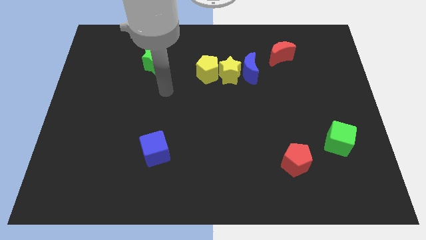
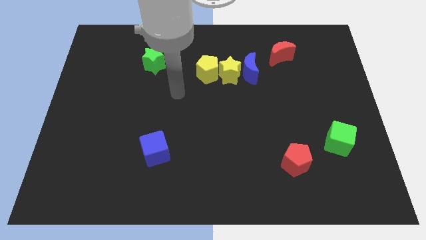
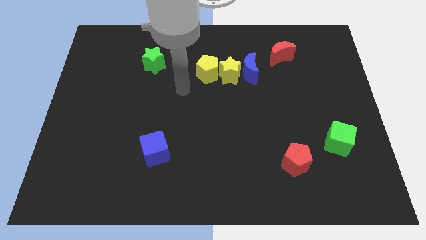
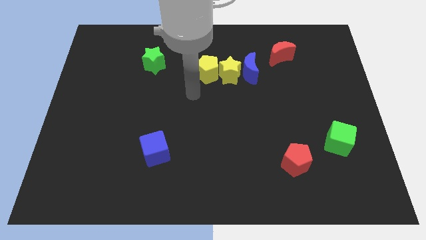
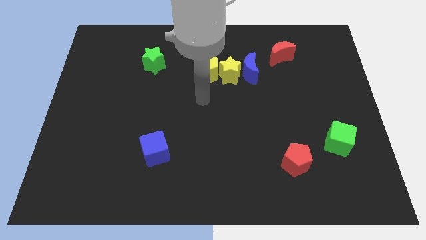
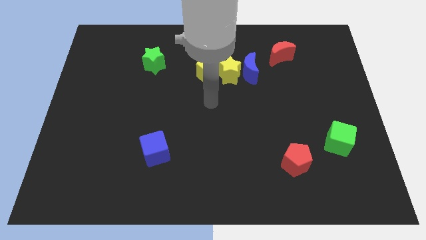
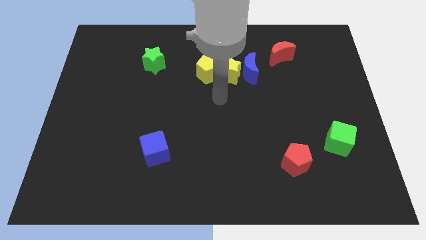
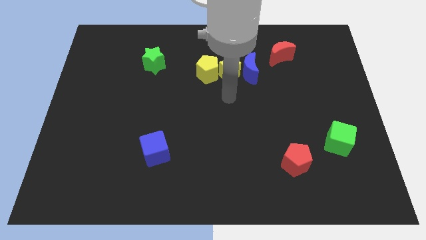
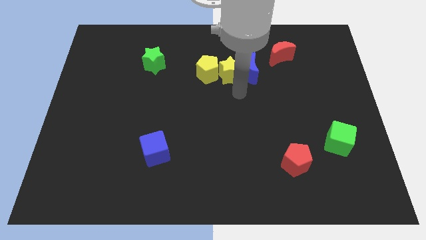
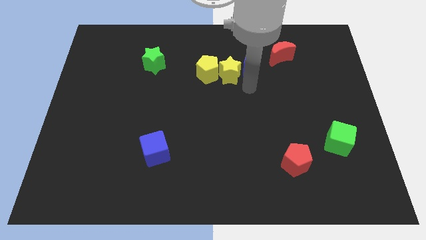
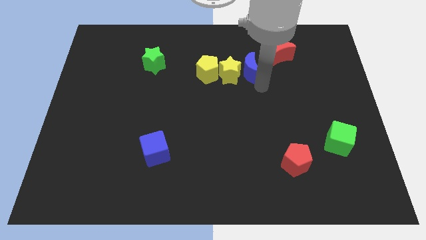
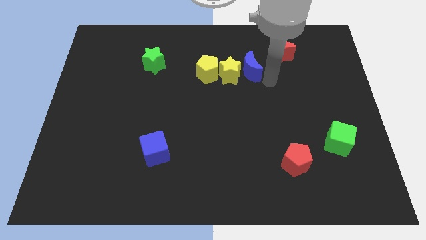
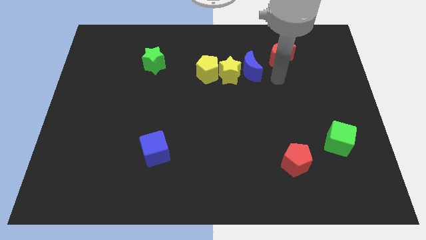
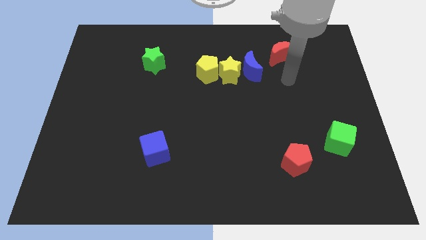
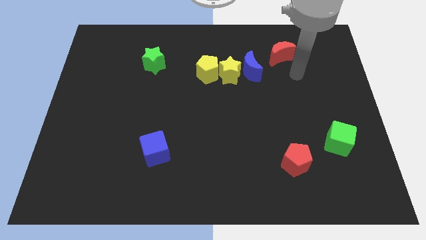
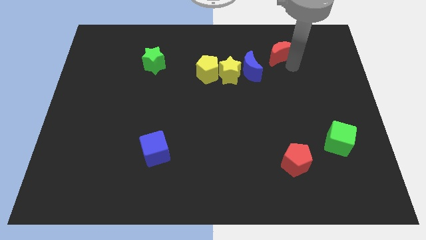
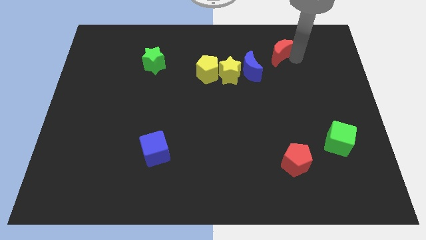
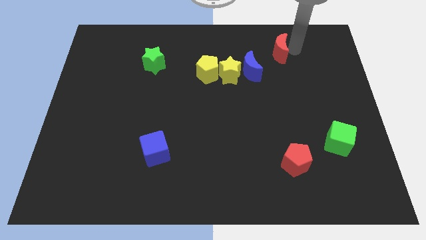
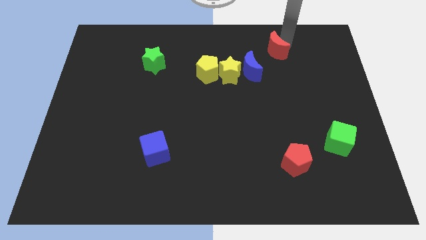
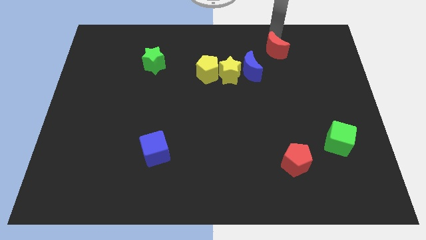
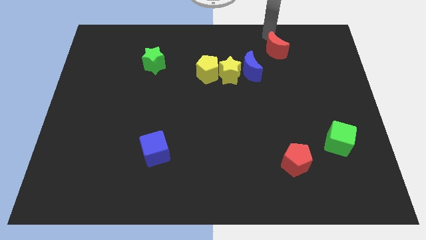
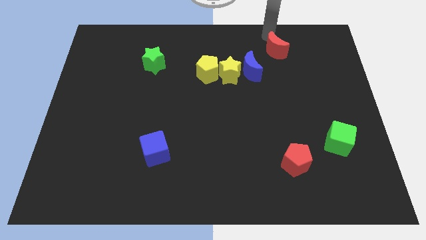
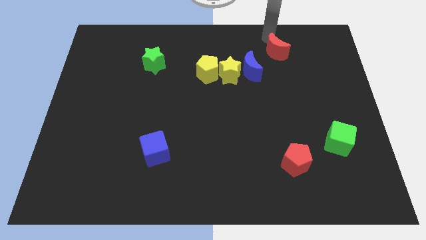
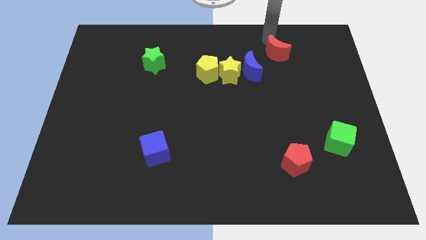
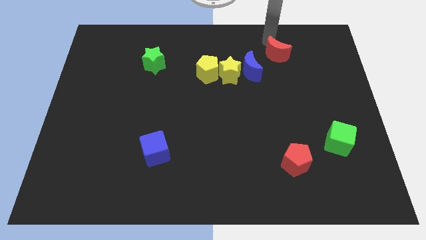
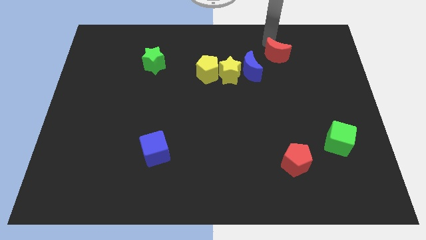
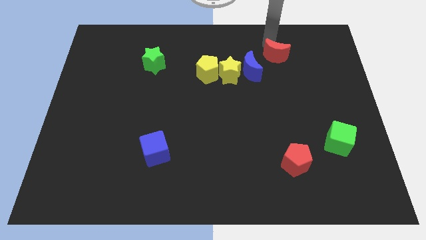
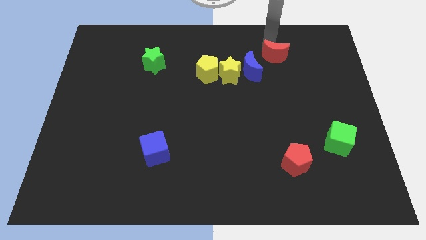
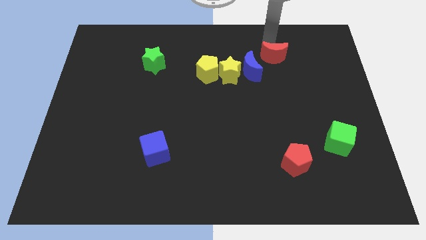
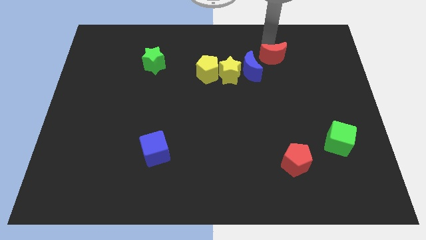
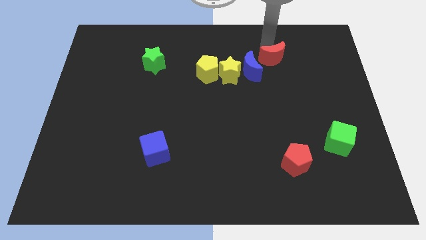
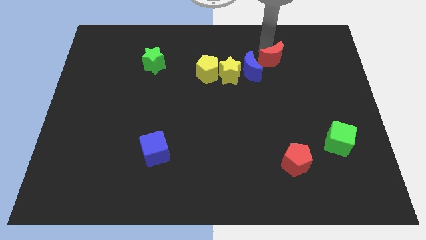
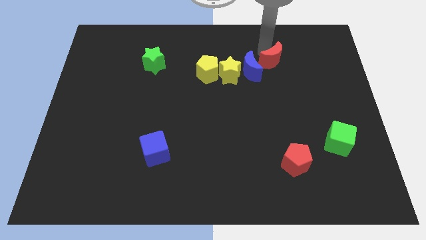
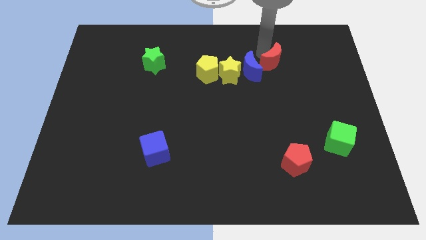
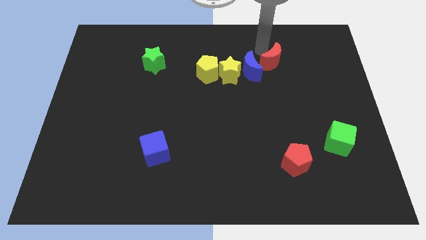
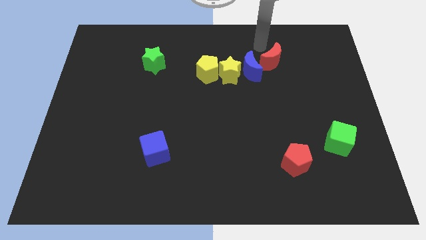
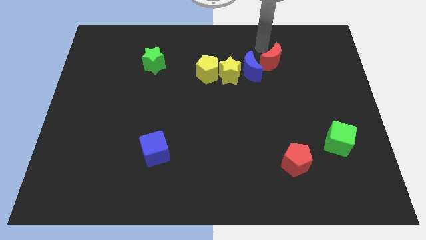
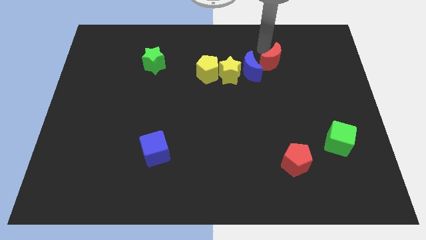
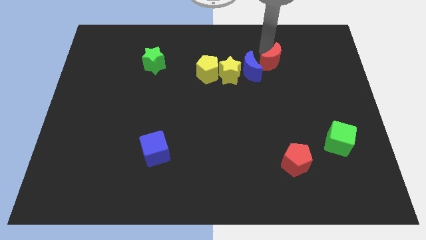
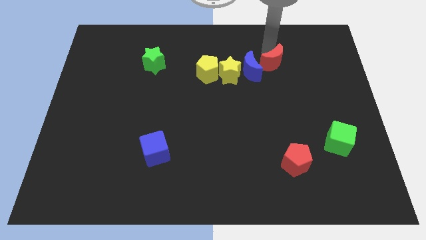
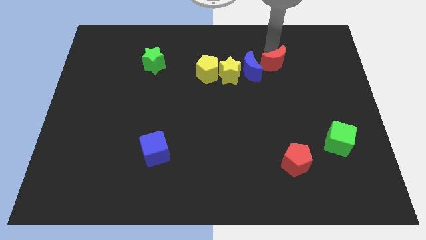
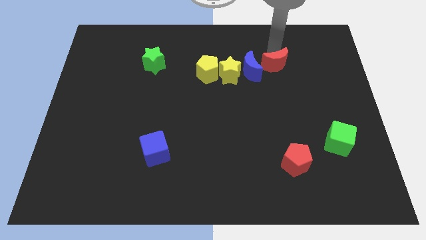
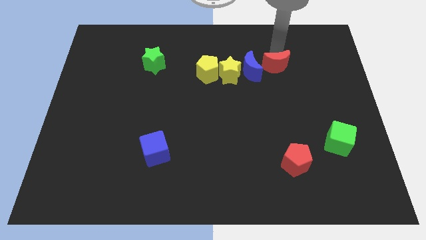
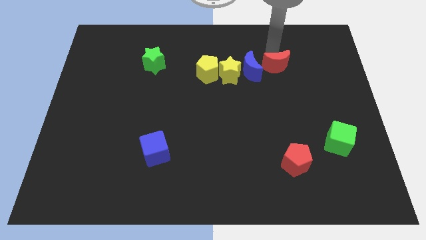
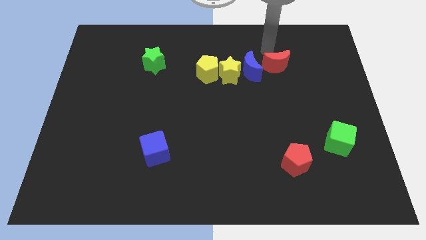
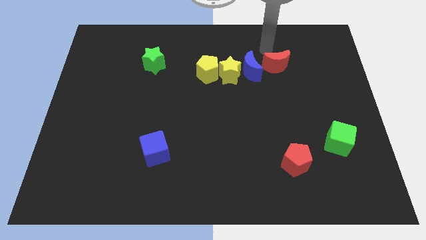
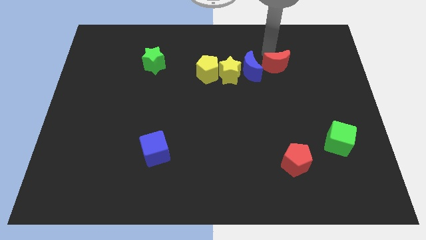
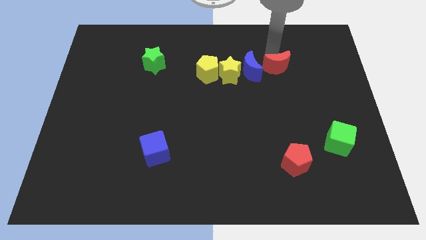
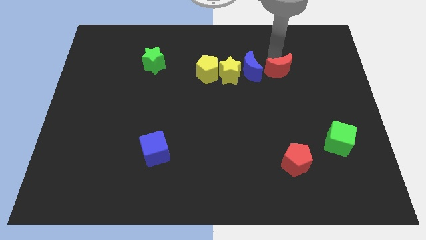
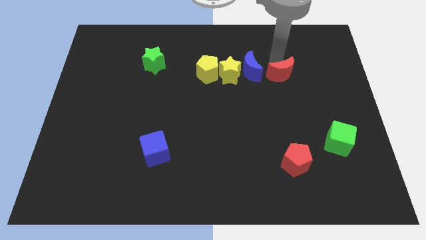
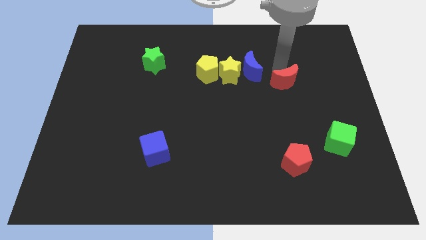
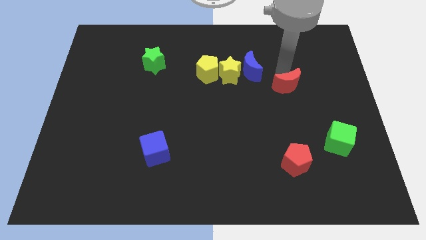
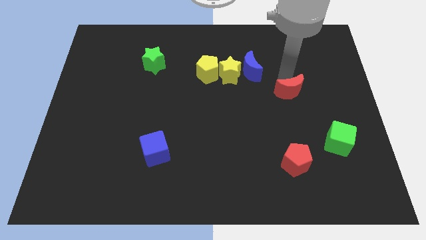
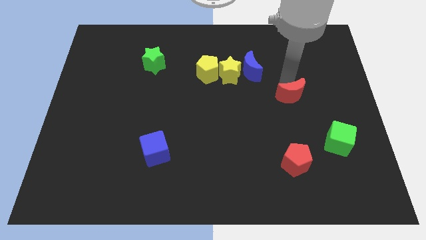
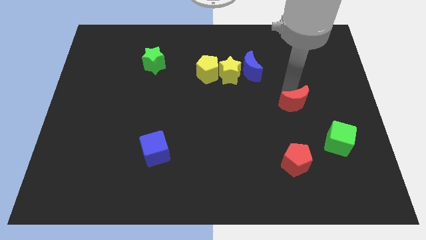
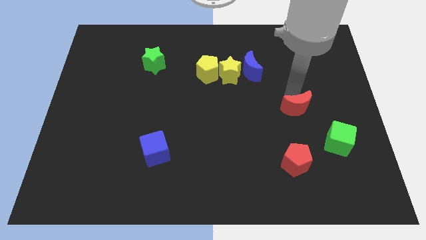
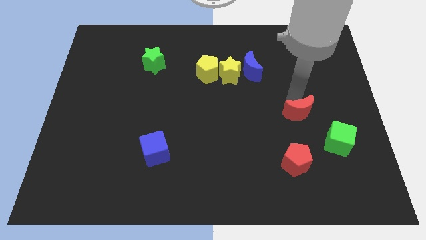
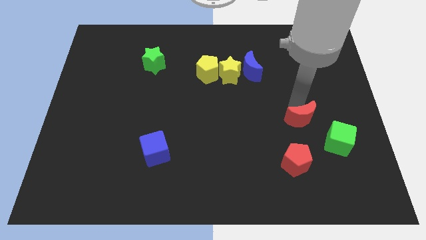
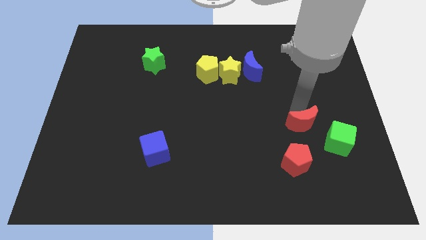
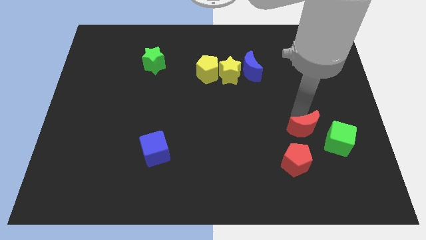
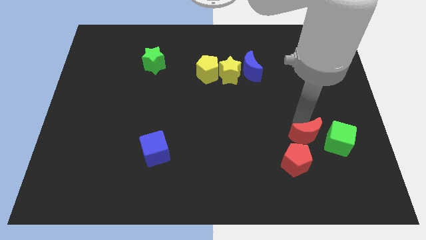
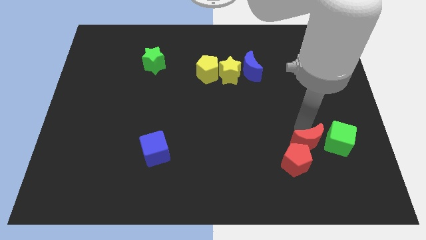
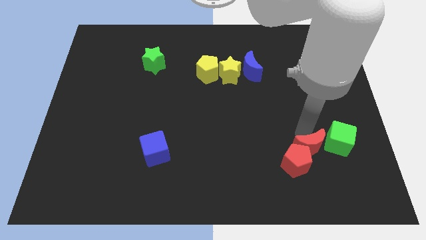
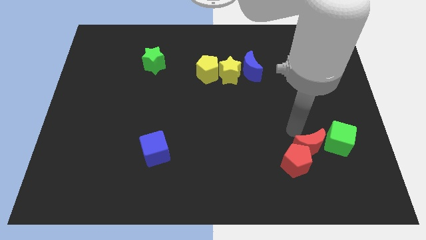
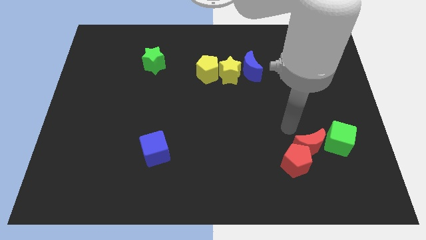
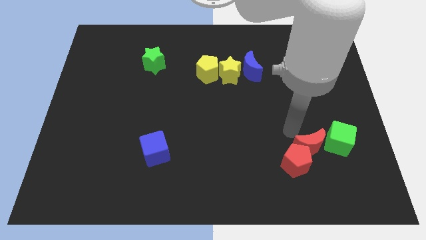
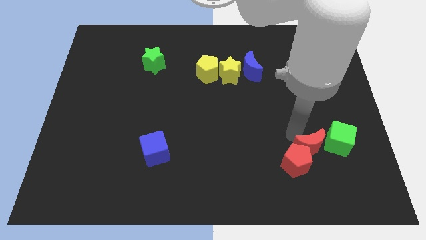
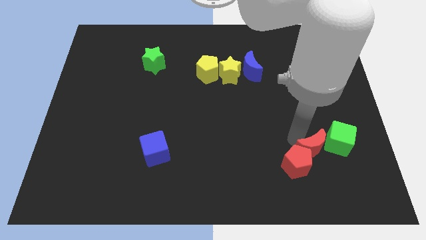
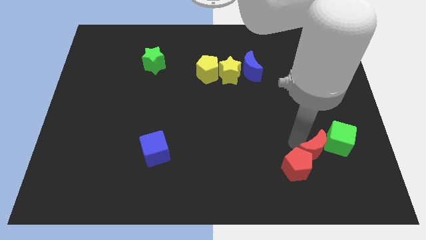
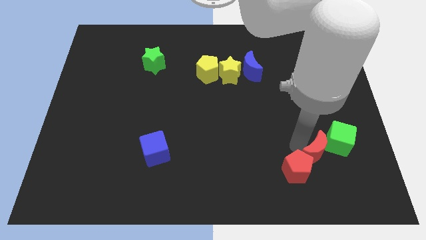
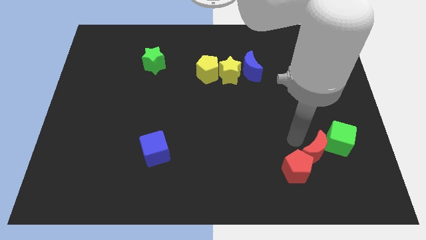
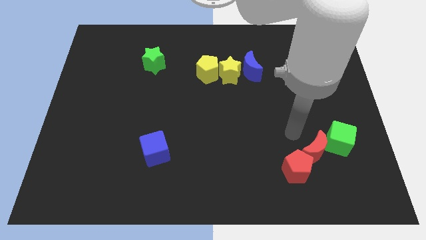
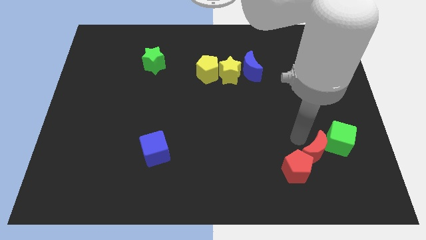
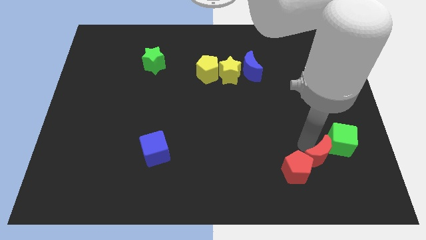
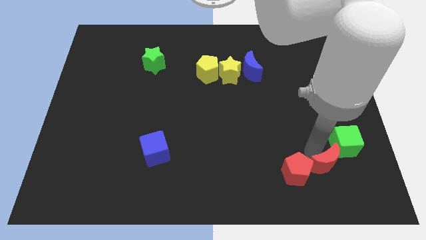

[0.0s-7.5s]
push the red moon to the bottom of the green cube
